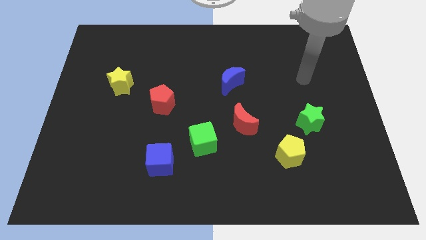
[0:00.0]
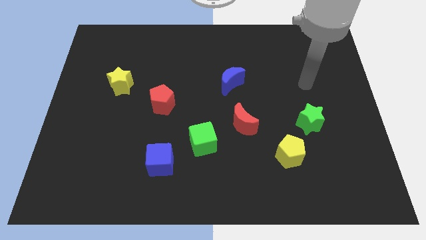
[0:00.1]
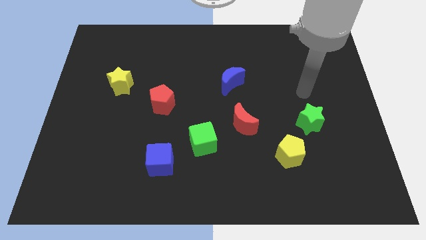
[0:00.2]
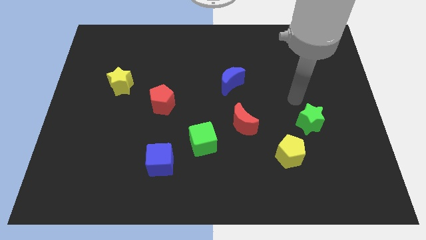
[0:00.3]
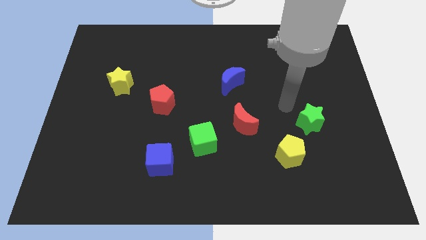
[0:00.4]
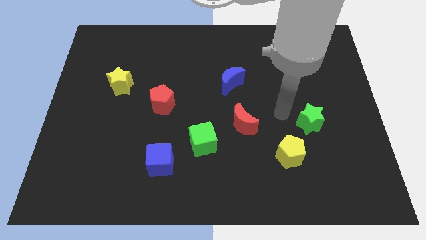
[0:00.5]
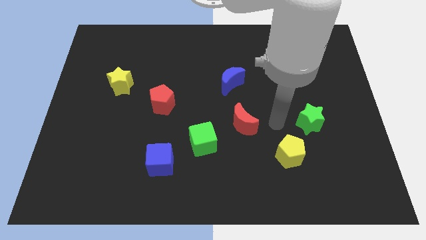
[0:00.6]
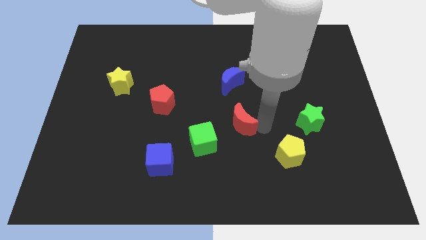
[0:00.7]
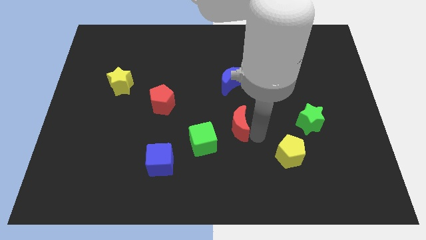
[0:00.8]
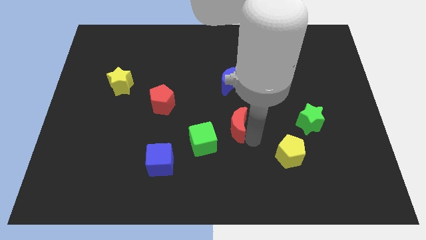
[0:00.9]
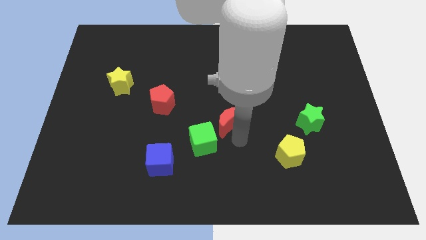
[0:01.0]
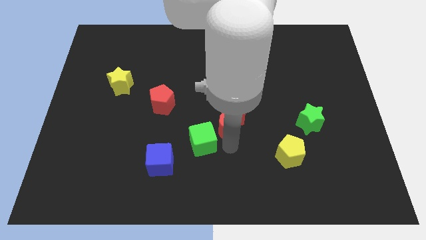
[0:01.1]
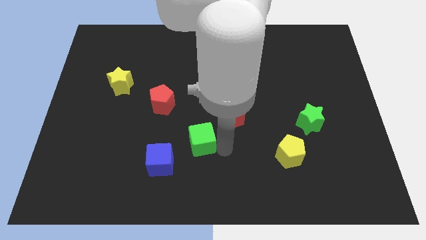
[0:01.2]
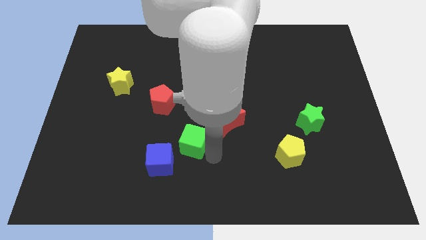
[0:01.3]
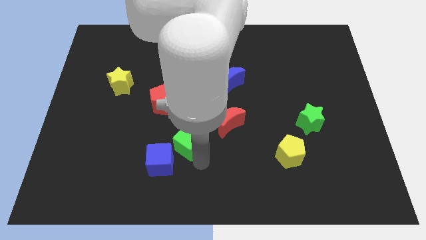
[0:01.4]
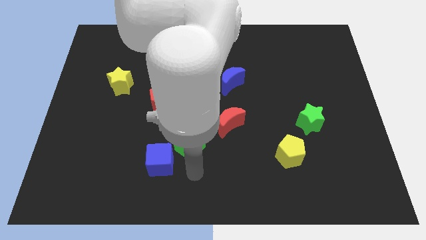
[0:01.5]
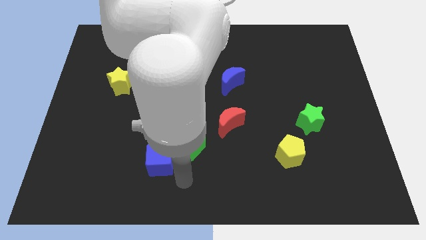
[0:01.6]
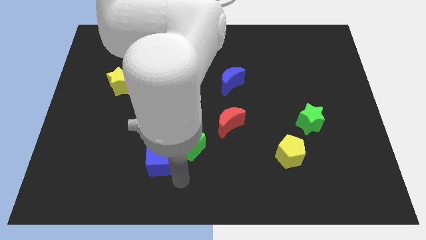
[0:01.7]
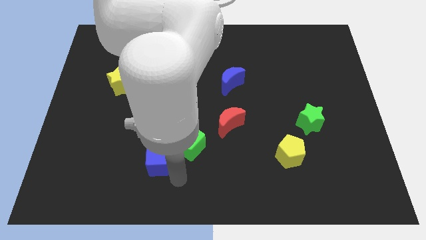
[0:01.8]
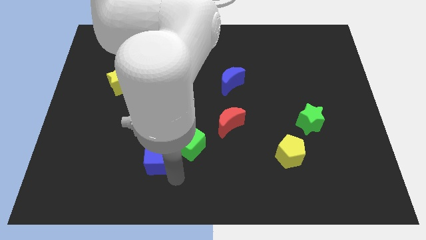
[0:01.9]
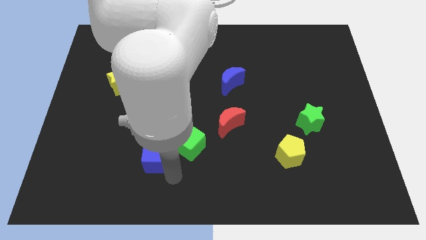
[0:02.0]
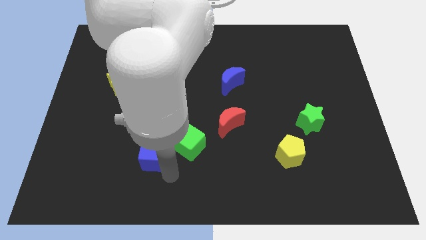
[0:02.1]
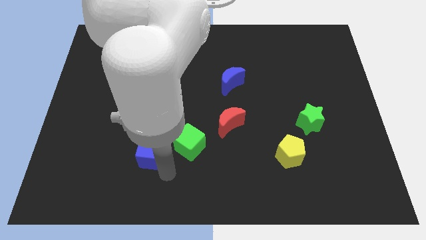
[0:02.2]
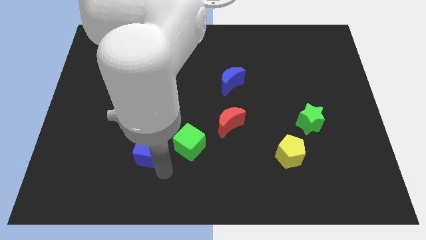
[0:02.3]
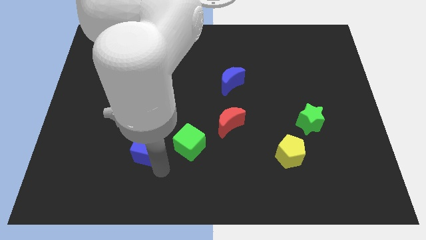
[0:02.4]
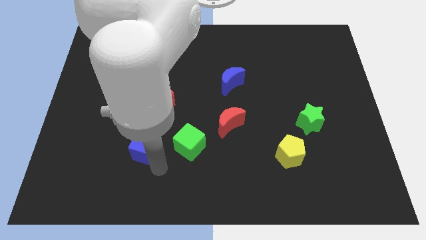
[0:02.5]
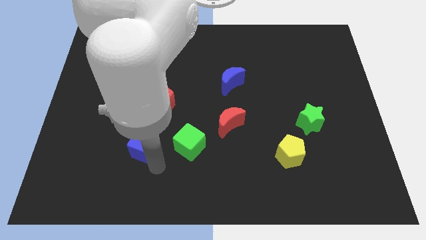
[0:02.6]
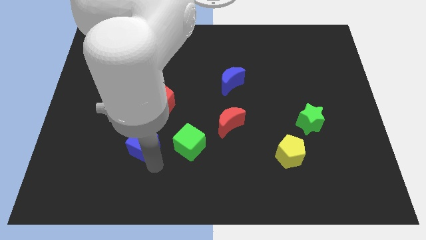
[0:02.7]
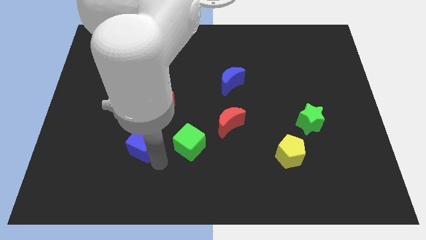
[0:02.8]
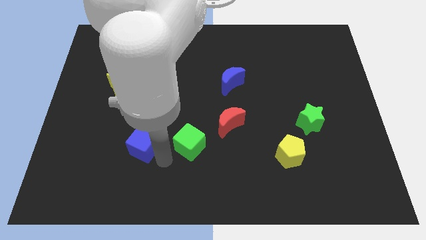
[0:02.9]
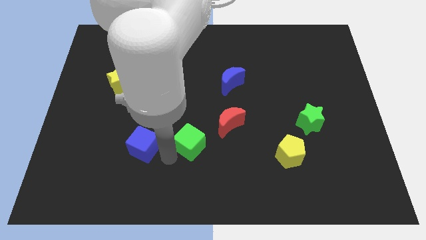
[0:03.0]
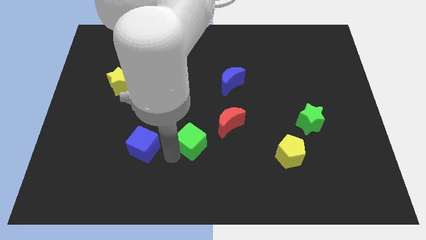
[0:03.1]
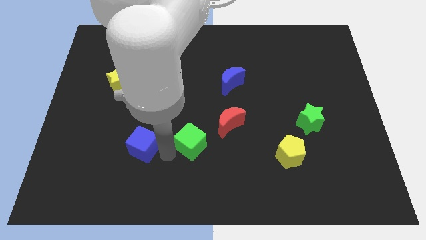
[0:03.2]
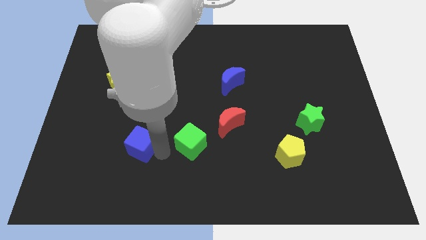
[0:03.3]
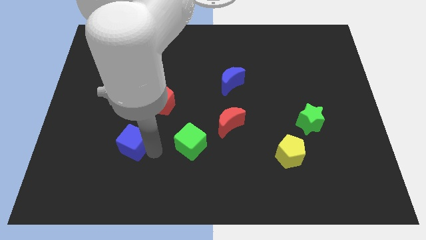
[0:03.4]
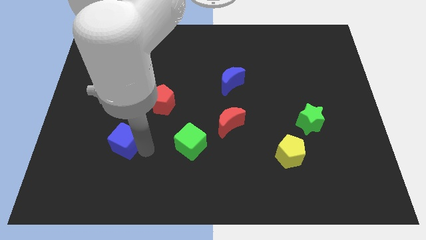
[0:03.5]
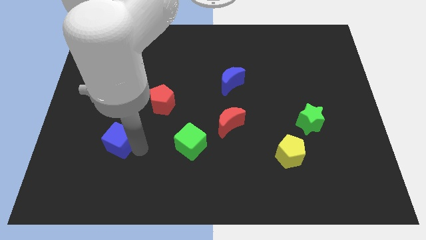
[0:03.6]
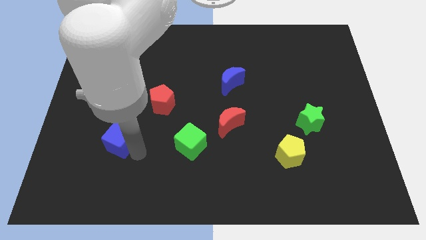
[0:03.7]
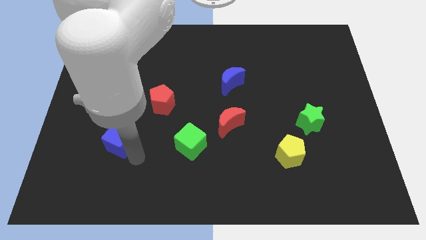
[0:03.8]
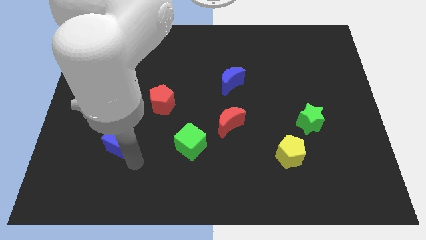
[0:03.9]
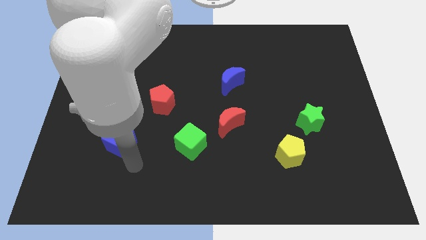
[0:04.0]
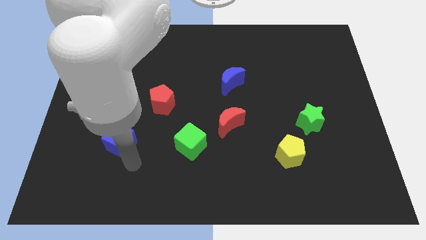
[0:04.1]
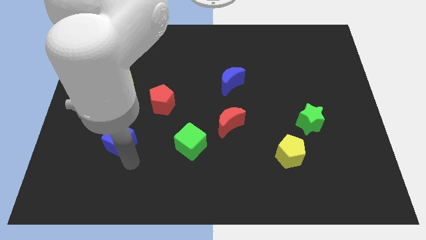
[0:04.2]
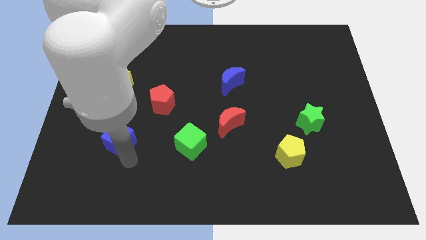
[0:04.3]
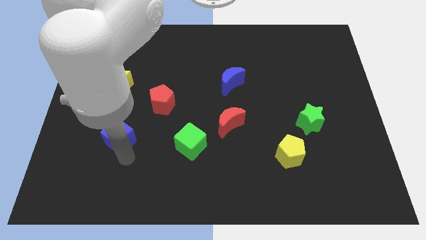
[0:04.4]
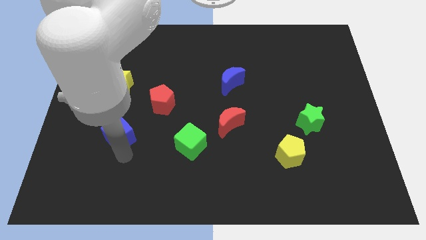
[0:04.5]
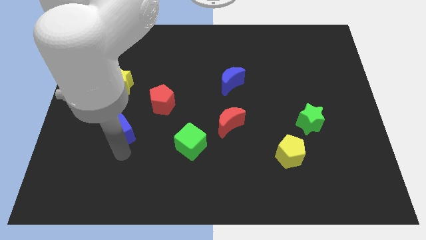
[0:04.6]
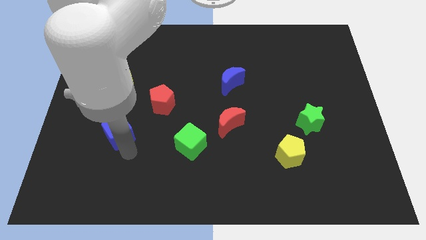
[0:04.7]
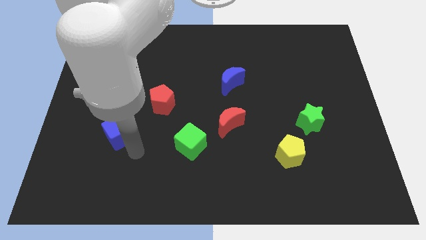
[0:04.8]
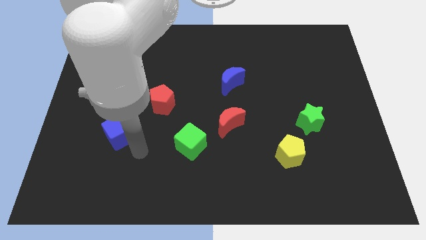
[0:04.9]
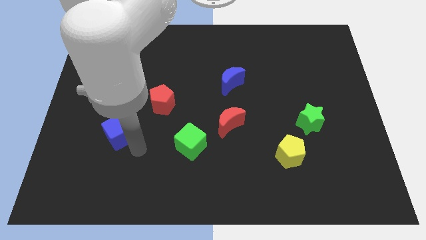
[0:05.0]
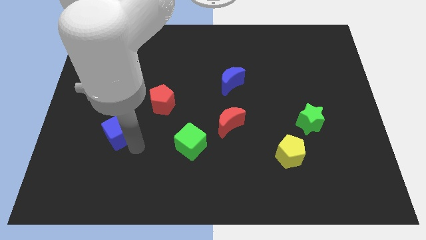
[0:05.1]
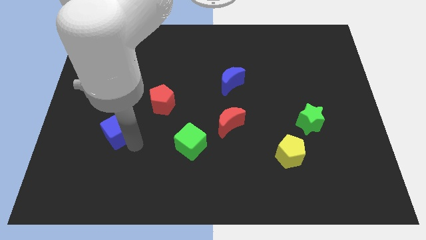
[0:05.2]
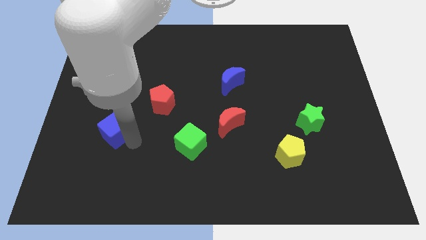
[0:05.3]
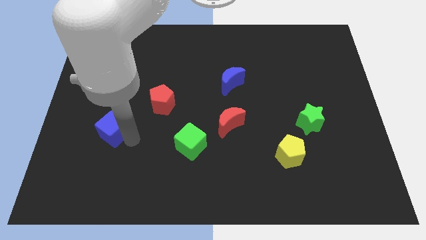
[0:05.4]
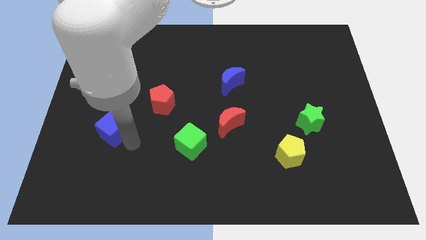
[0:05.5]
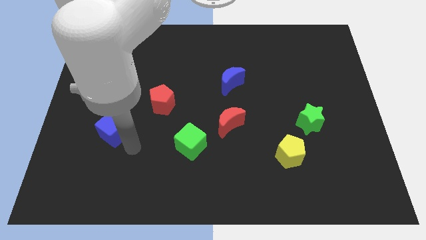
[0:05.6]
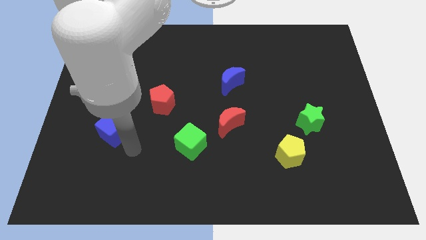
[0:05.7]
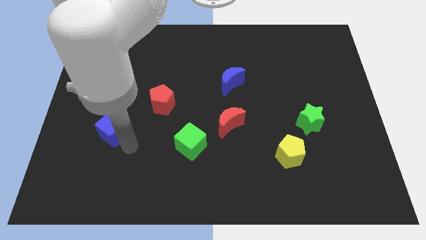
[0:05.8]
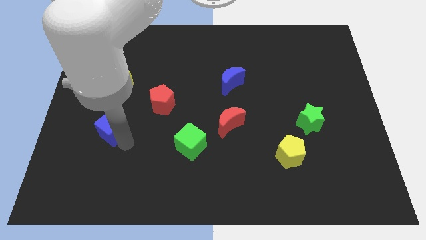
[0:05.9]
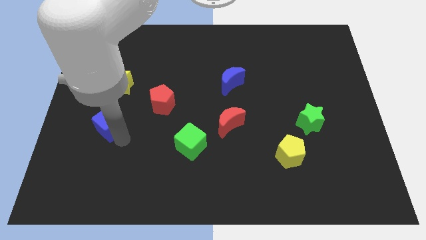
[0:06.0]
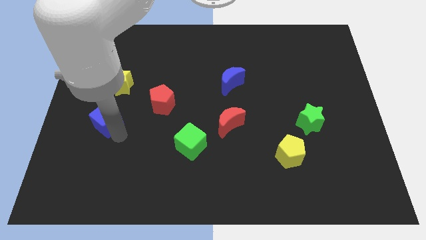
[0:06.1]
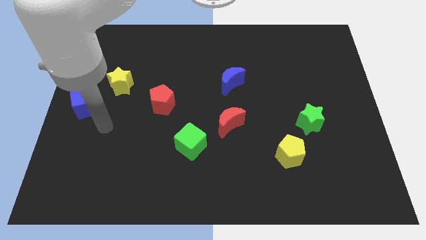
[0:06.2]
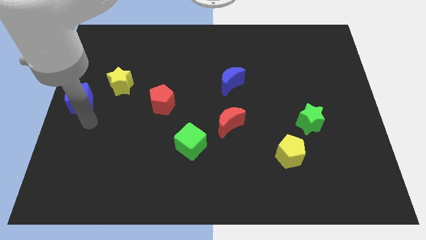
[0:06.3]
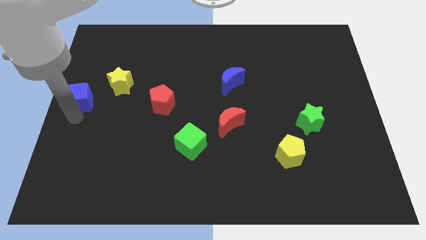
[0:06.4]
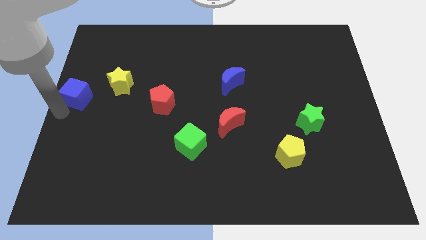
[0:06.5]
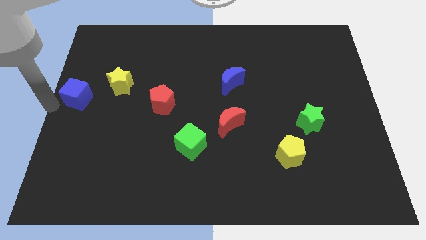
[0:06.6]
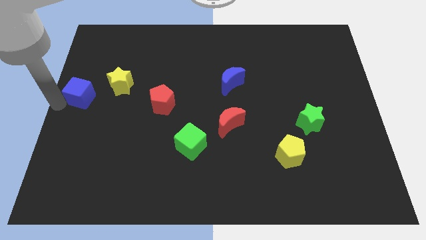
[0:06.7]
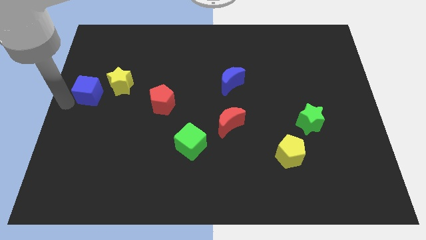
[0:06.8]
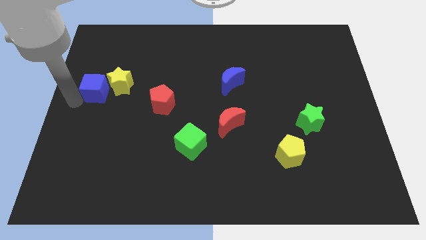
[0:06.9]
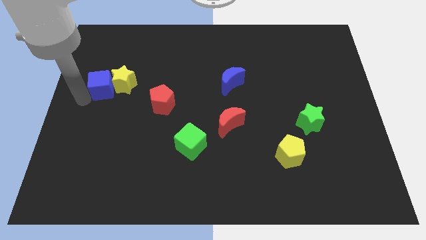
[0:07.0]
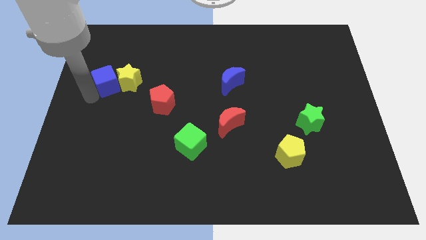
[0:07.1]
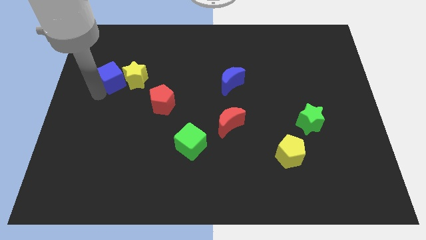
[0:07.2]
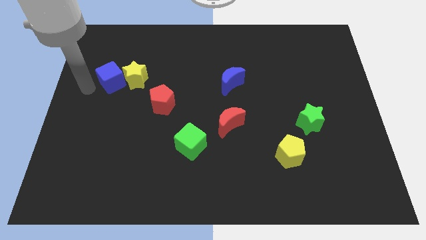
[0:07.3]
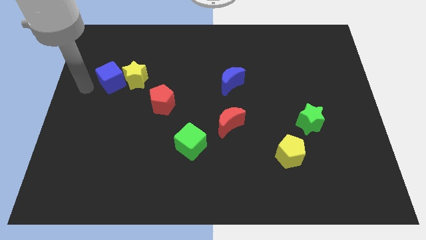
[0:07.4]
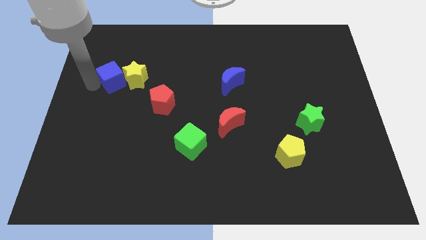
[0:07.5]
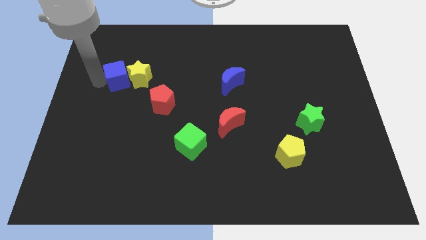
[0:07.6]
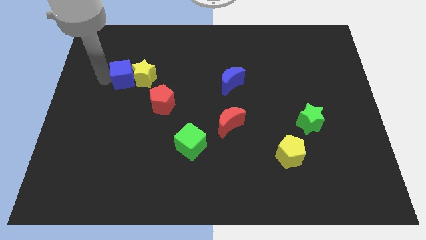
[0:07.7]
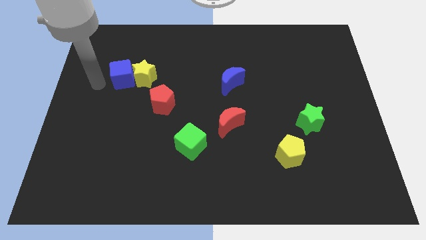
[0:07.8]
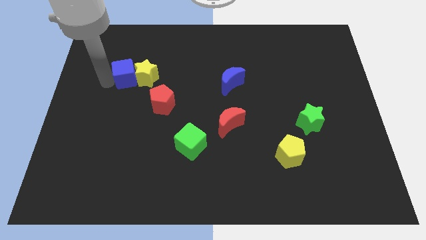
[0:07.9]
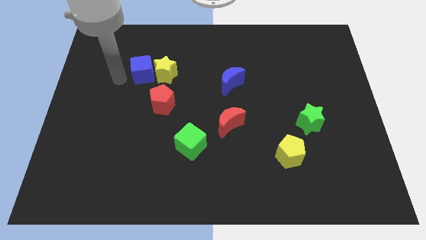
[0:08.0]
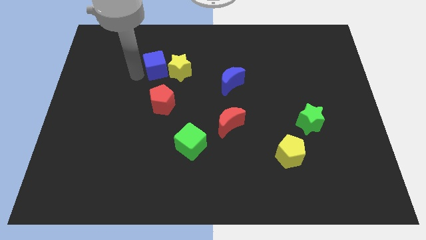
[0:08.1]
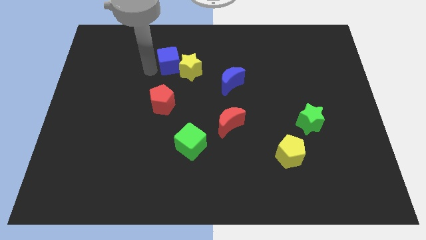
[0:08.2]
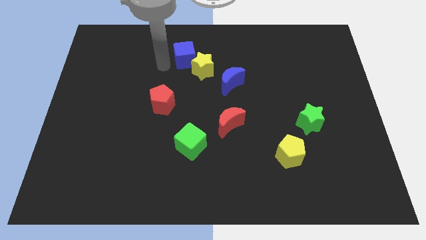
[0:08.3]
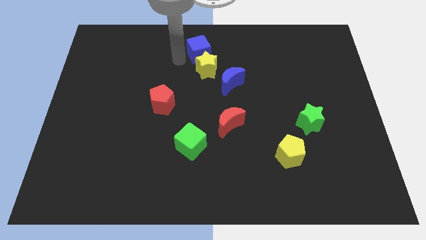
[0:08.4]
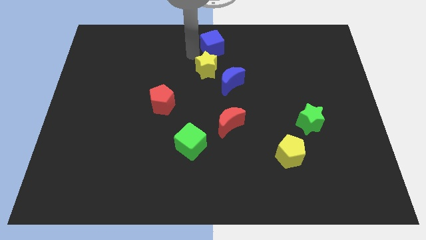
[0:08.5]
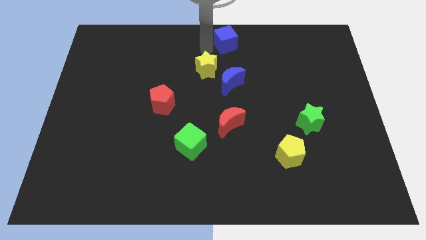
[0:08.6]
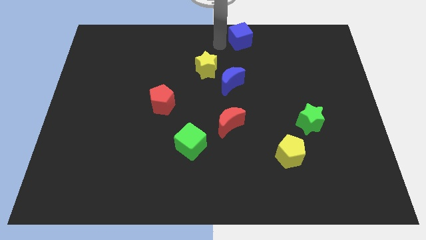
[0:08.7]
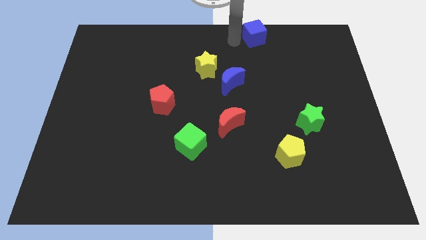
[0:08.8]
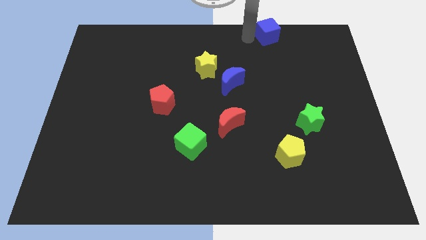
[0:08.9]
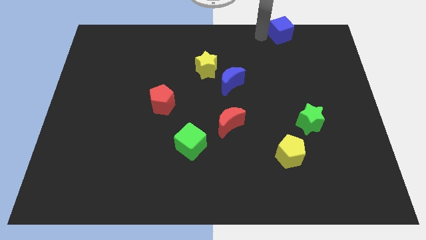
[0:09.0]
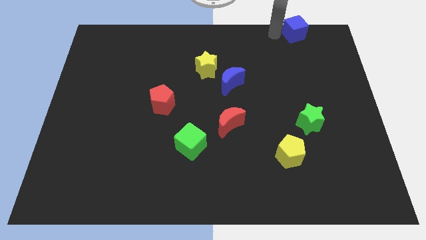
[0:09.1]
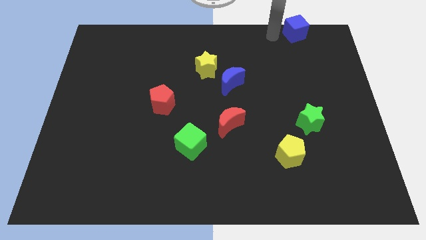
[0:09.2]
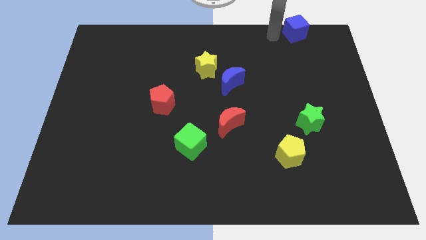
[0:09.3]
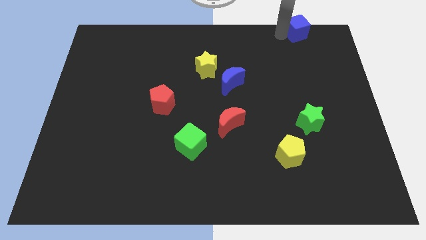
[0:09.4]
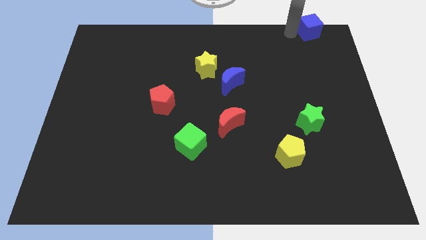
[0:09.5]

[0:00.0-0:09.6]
move the blue cube to the upper right corner
